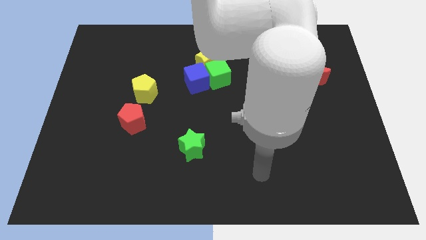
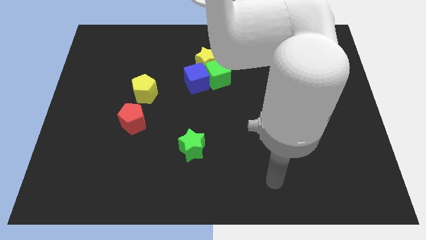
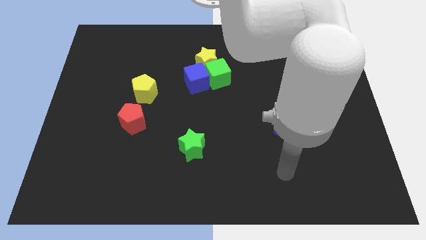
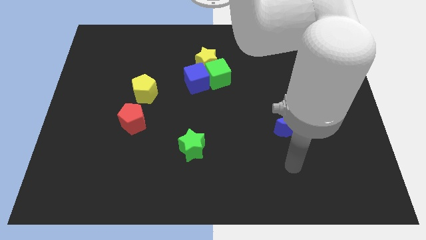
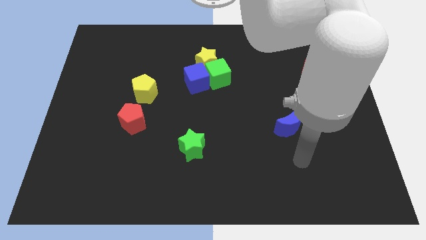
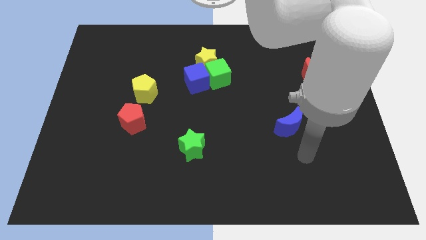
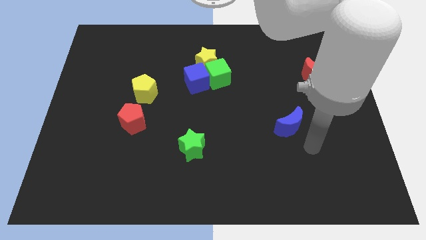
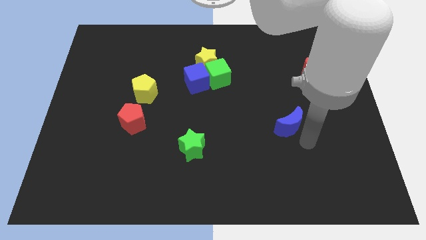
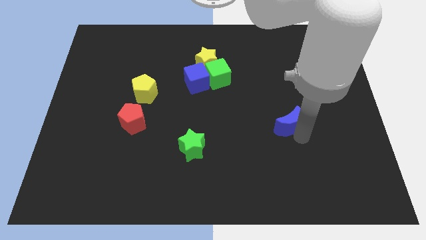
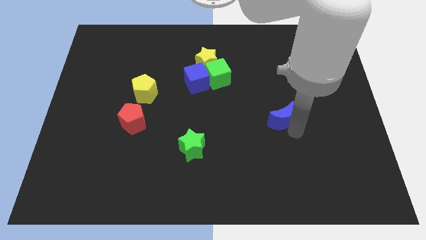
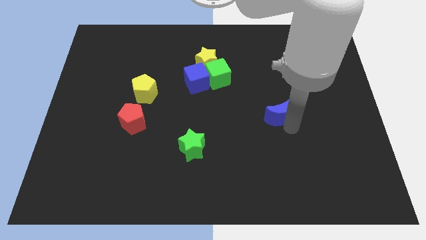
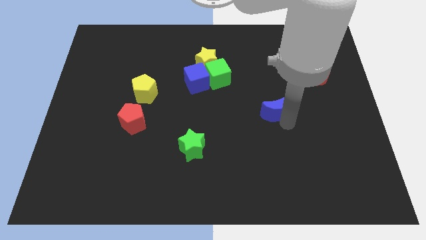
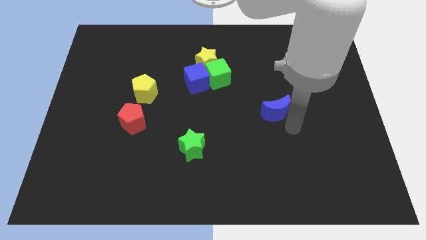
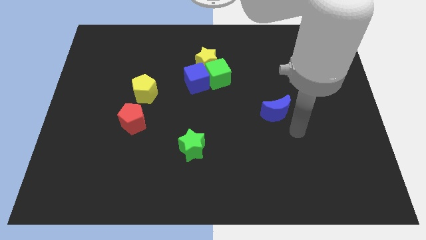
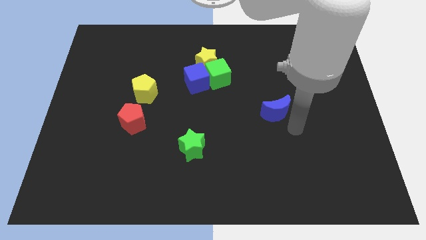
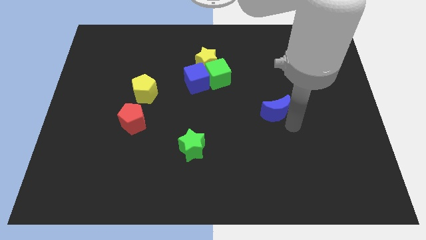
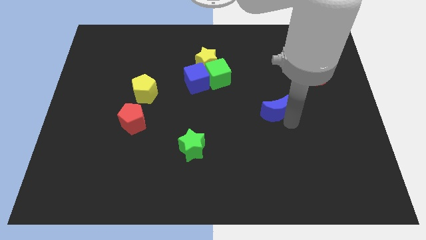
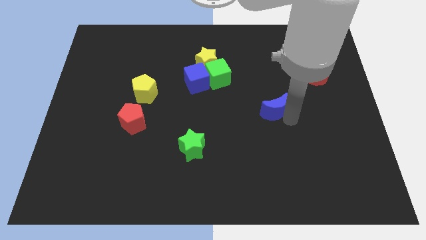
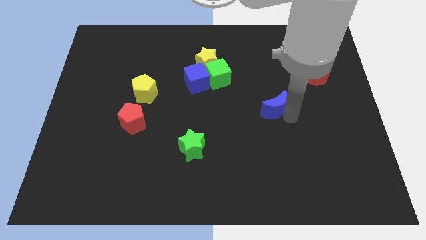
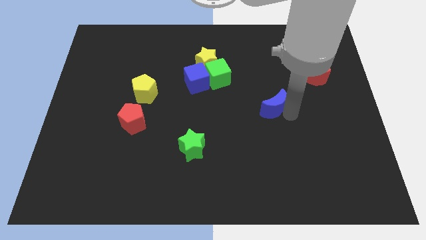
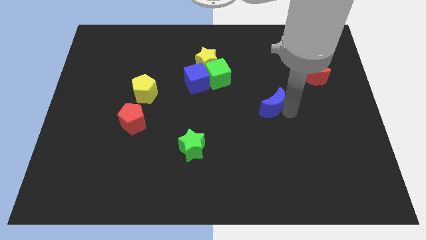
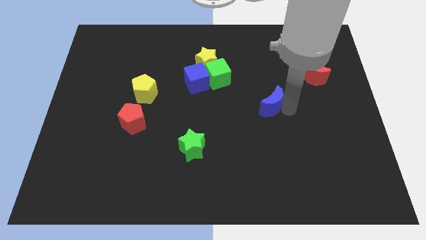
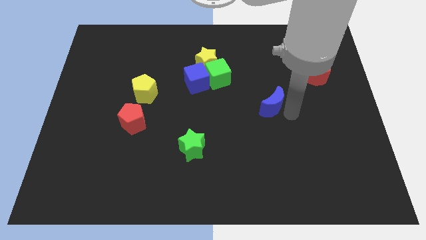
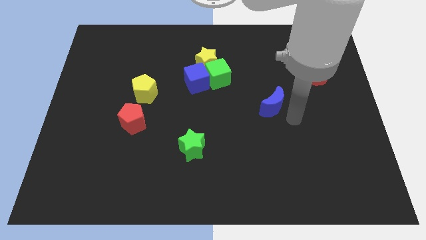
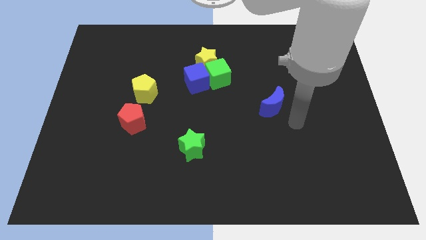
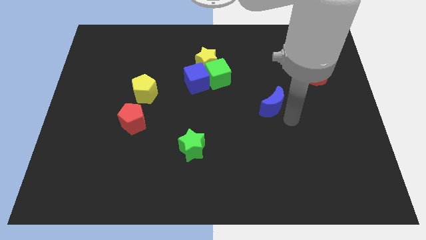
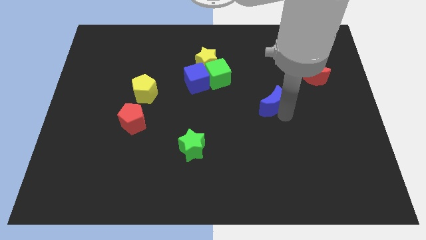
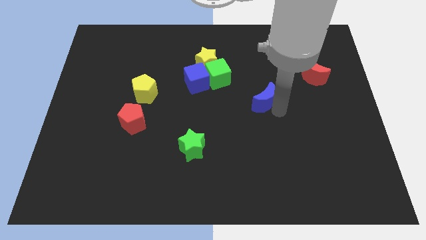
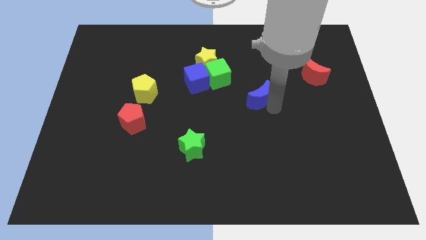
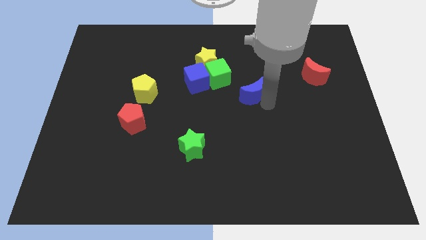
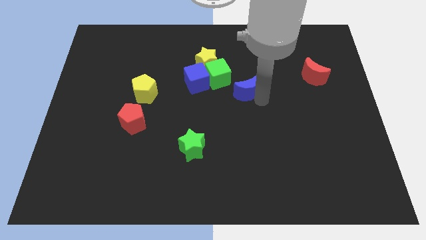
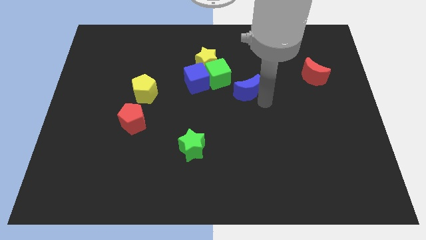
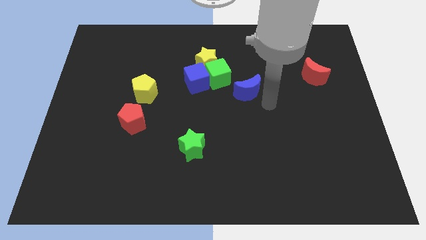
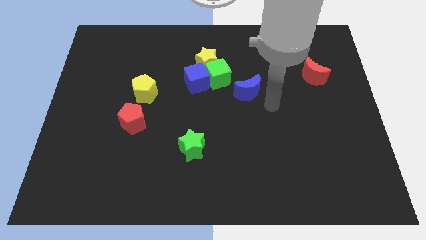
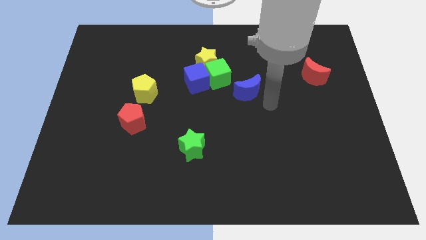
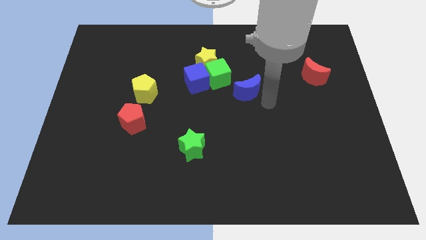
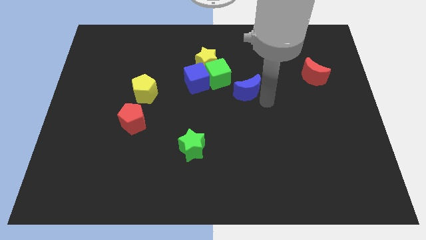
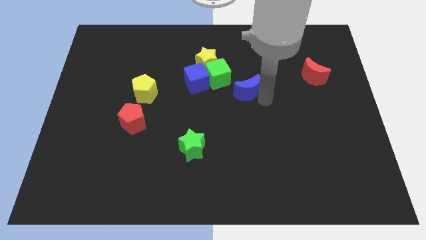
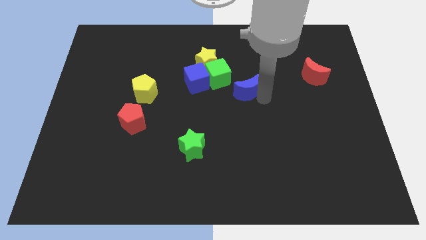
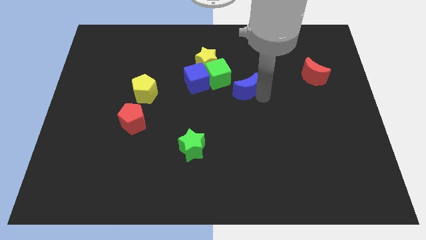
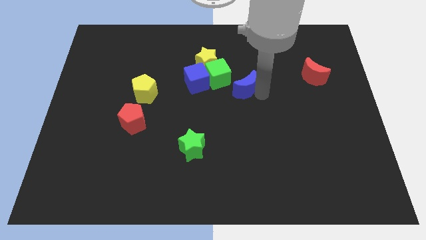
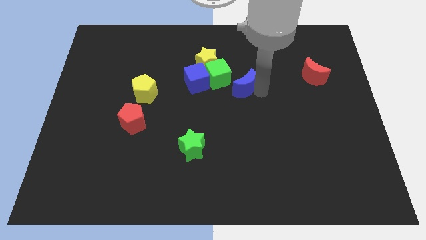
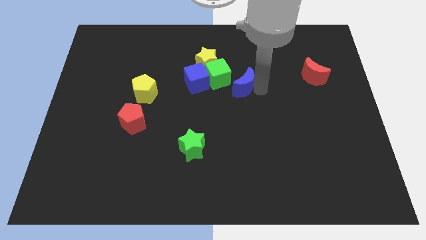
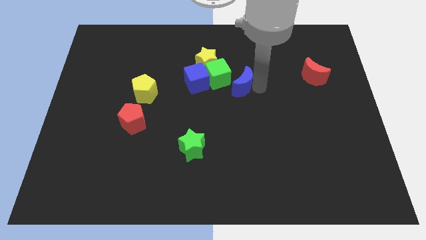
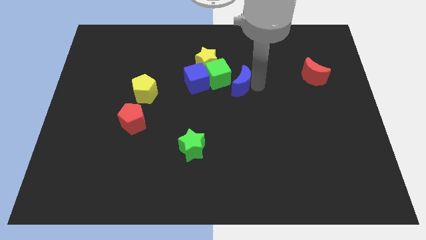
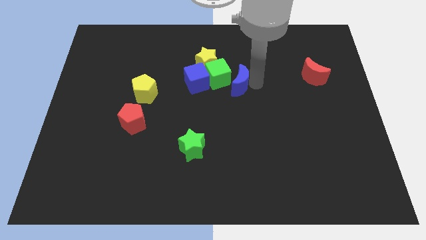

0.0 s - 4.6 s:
slide the blue moon to the green cube

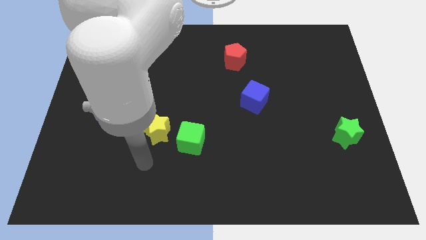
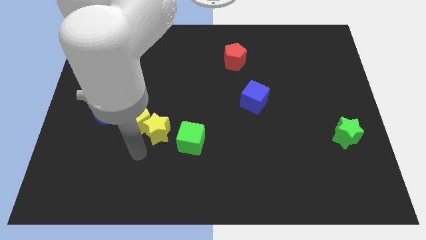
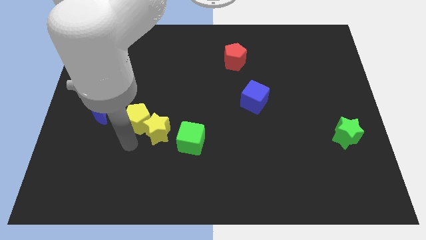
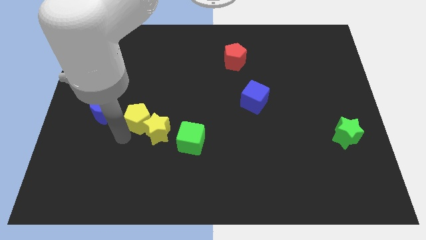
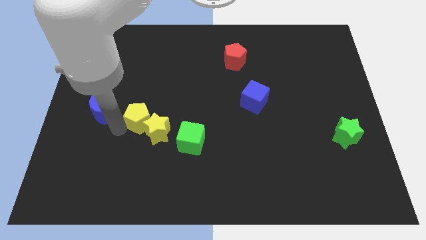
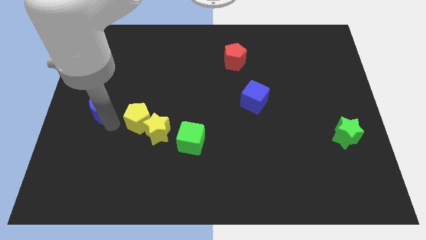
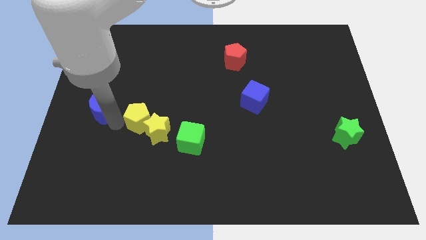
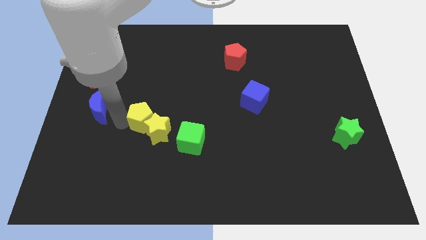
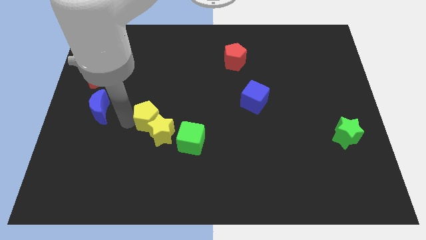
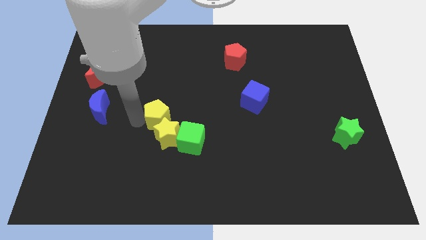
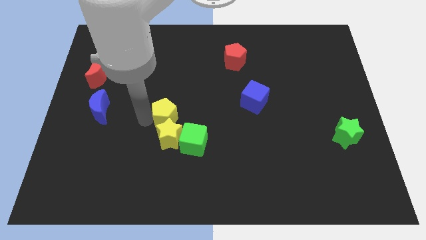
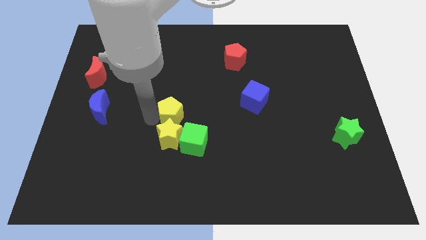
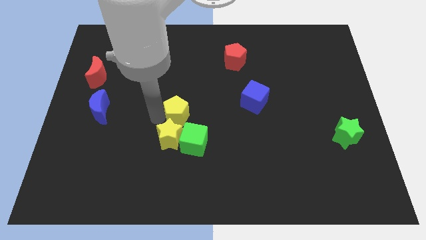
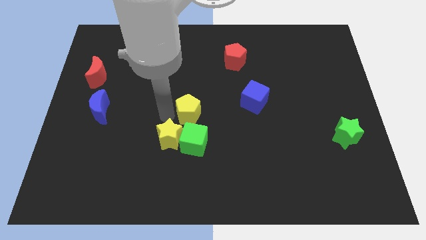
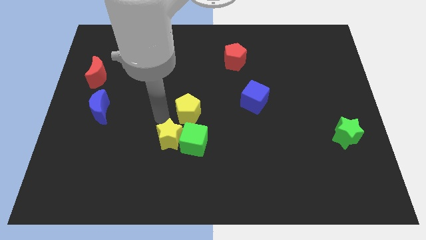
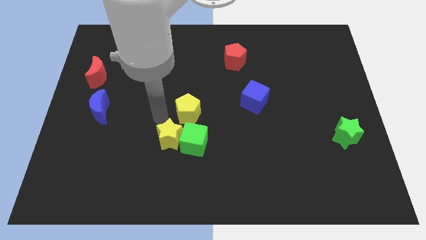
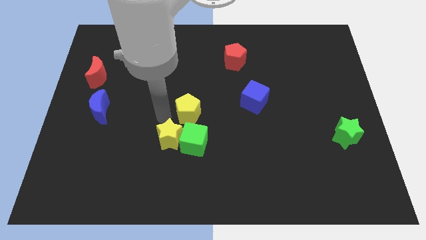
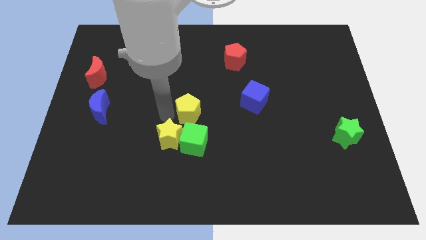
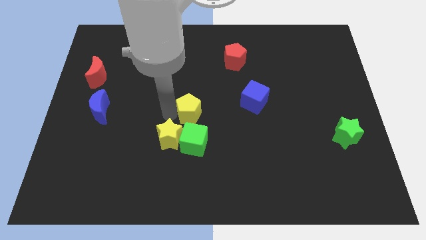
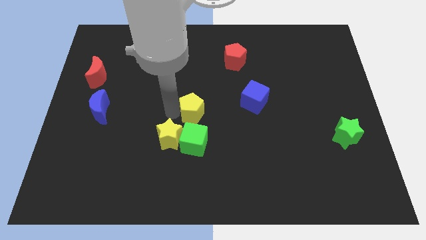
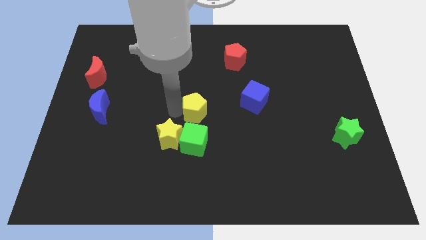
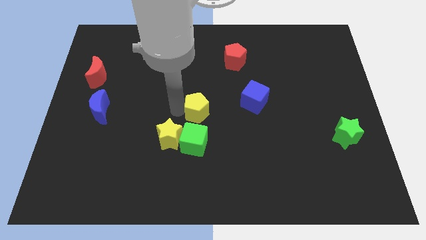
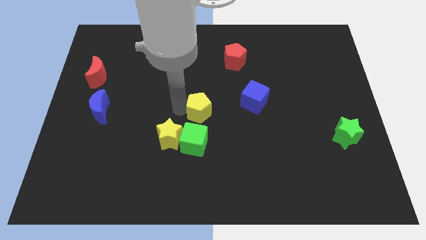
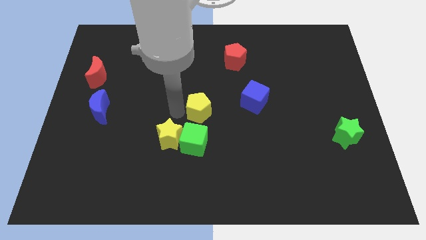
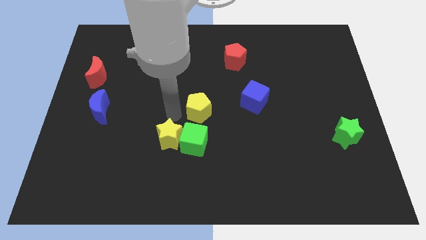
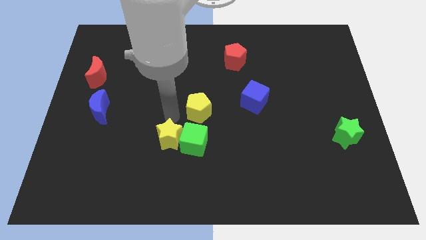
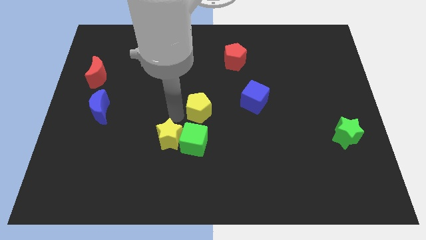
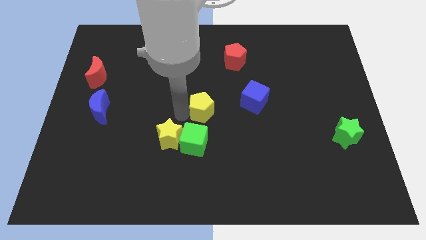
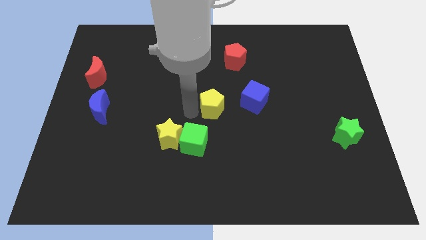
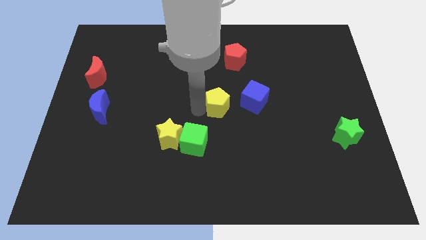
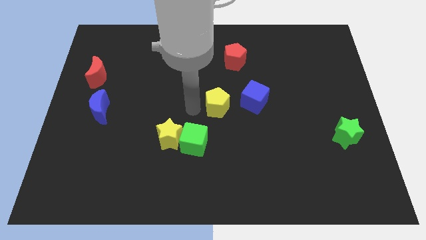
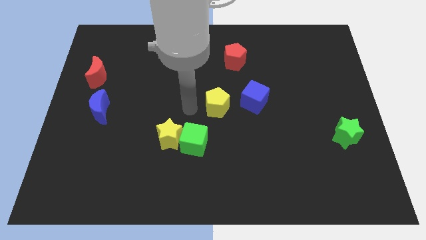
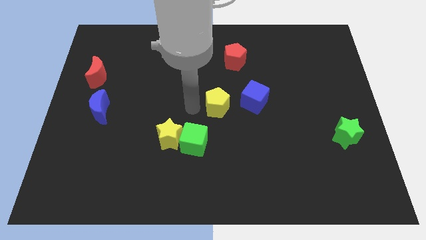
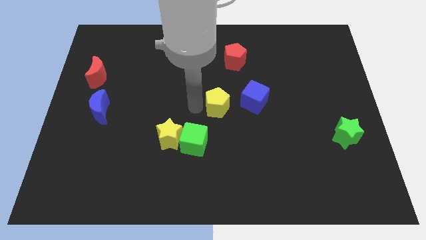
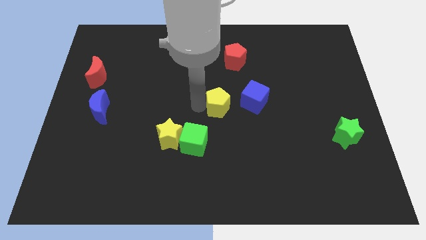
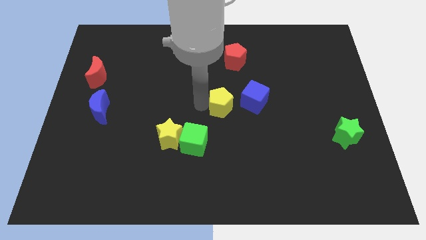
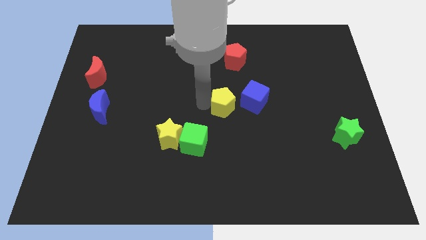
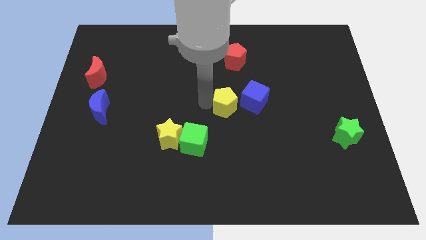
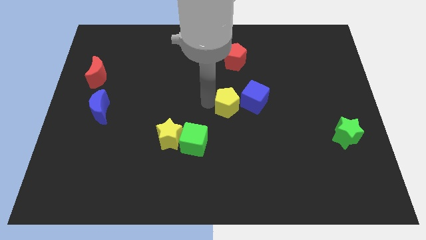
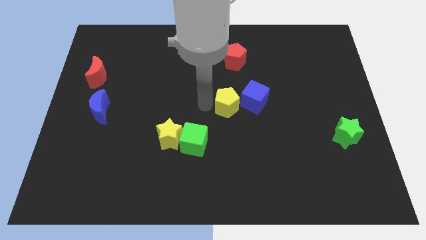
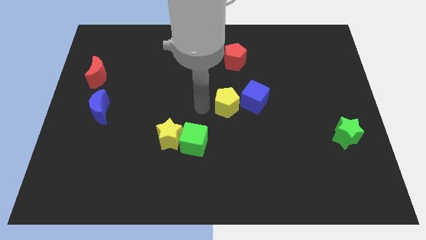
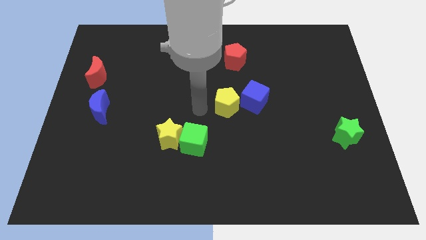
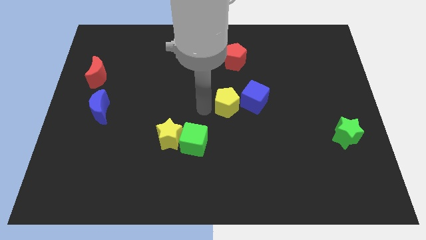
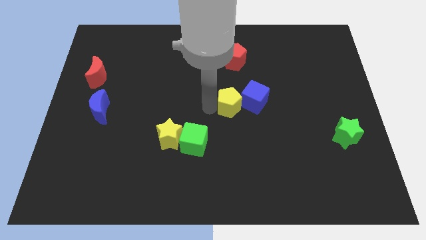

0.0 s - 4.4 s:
put the yellow pentagon close to the blue cube
